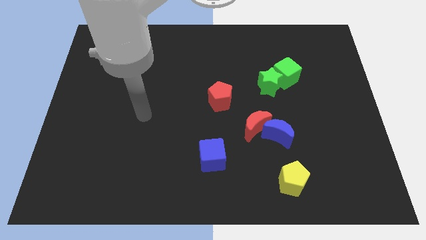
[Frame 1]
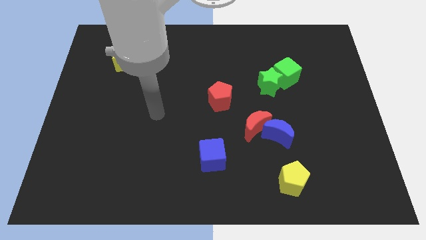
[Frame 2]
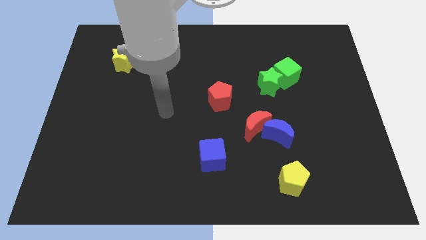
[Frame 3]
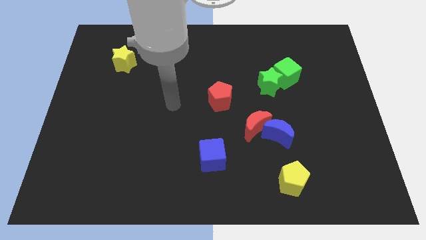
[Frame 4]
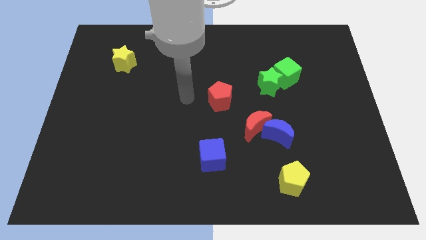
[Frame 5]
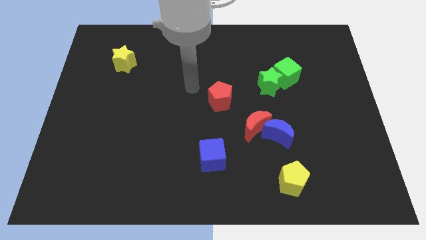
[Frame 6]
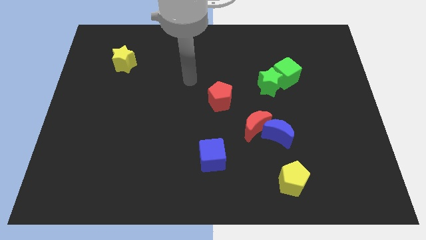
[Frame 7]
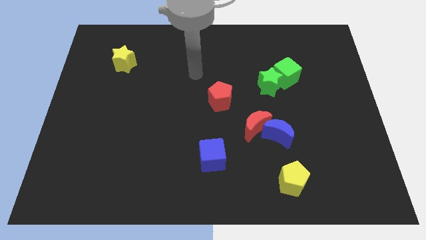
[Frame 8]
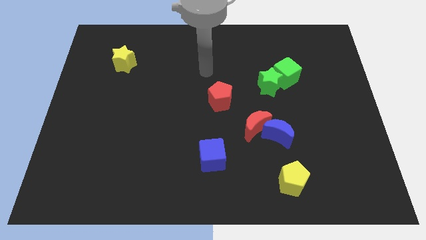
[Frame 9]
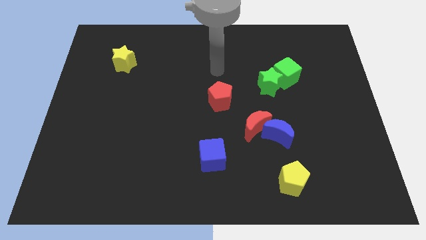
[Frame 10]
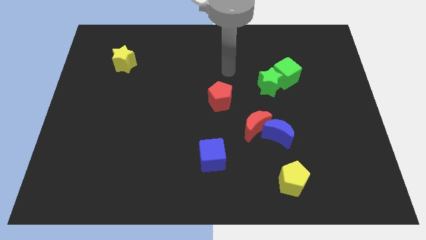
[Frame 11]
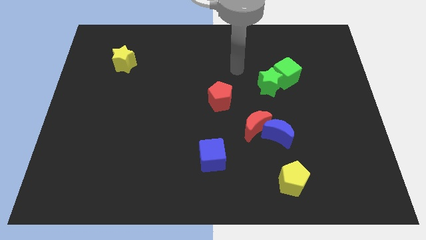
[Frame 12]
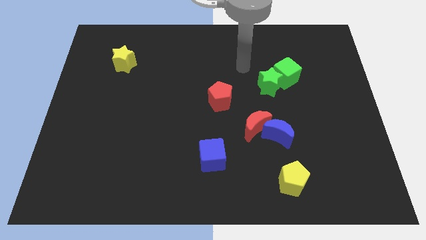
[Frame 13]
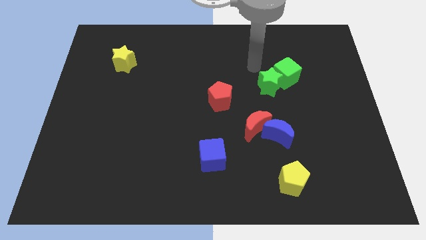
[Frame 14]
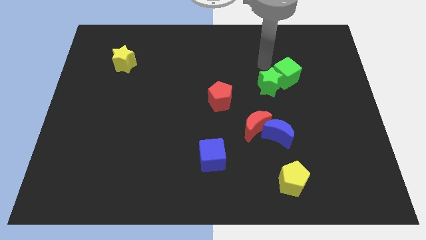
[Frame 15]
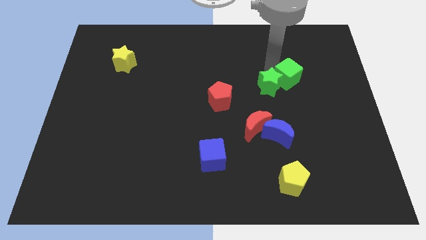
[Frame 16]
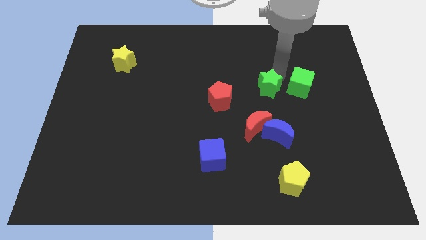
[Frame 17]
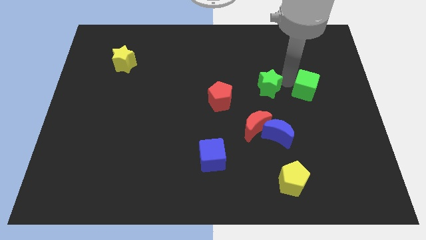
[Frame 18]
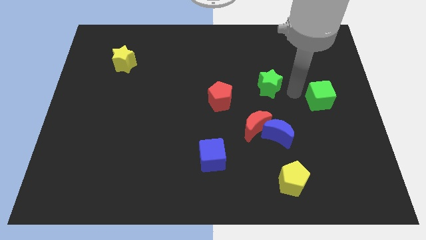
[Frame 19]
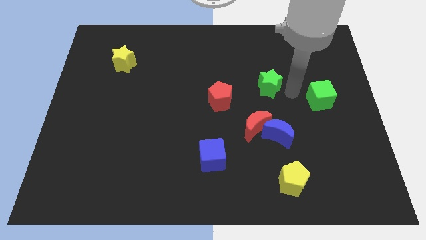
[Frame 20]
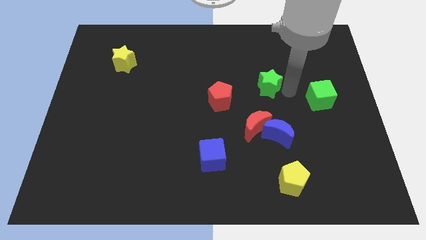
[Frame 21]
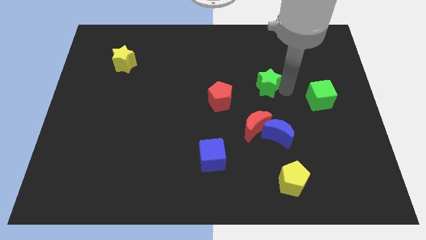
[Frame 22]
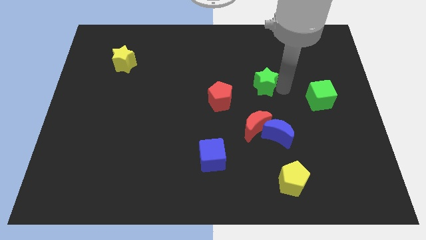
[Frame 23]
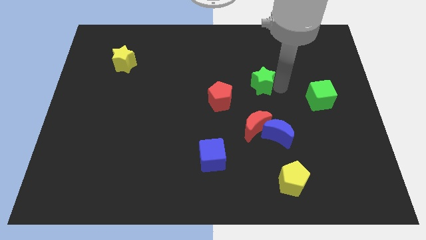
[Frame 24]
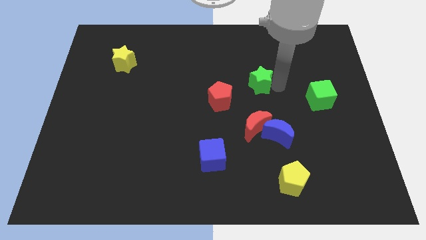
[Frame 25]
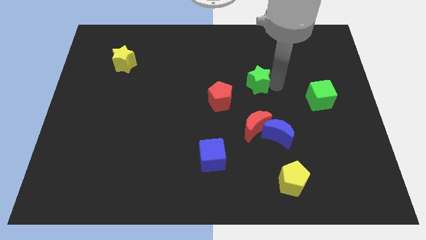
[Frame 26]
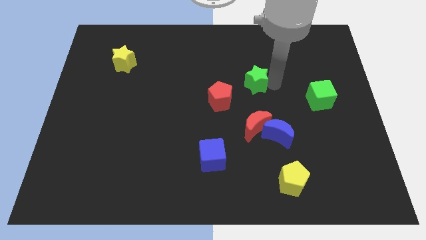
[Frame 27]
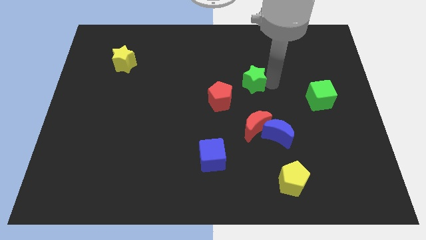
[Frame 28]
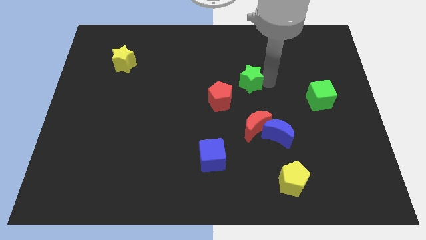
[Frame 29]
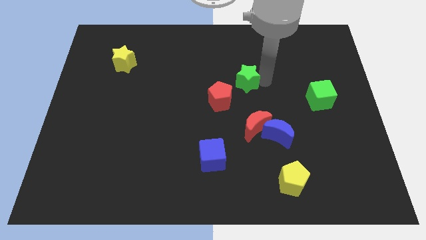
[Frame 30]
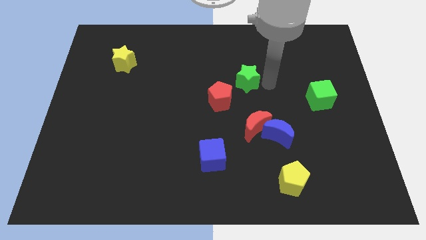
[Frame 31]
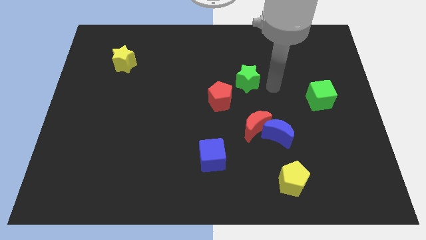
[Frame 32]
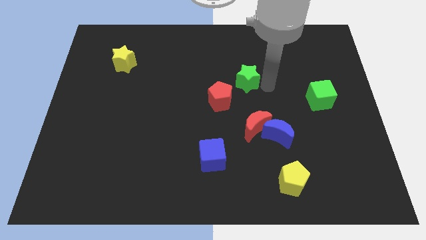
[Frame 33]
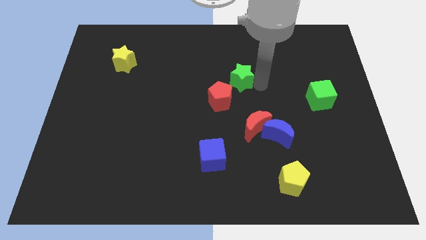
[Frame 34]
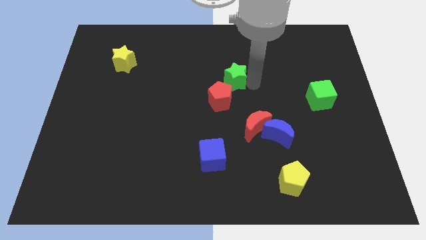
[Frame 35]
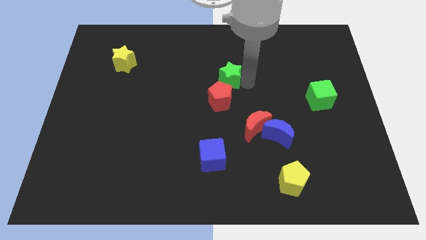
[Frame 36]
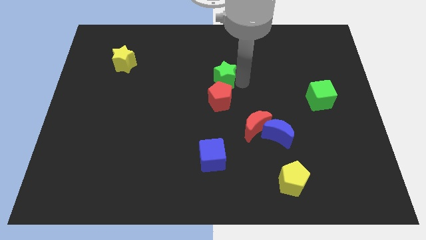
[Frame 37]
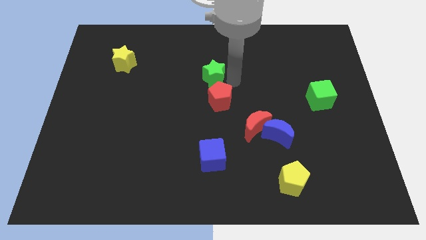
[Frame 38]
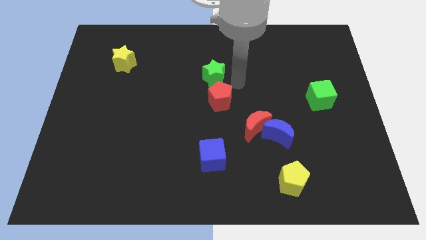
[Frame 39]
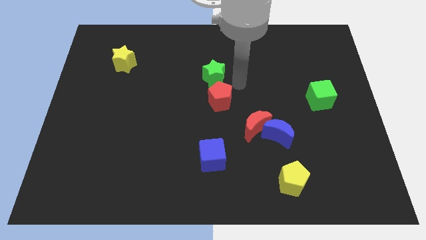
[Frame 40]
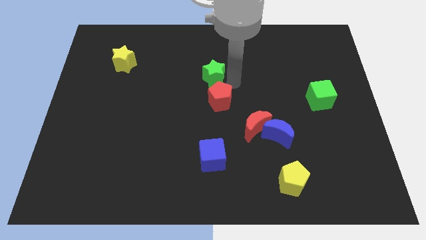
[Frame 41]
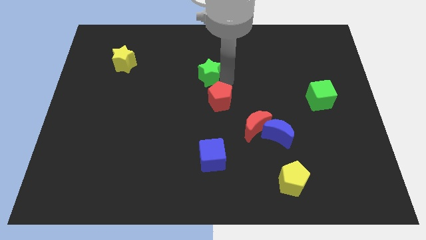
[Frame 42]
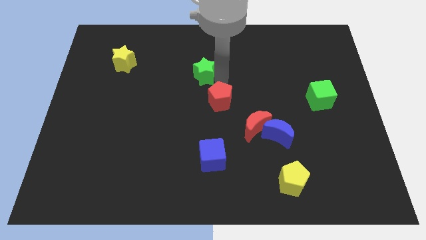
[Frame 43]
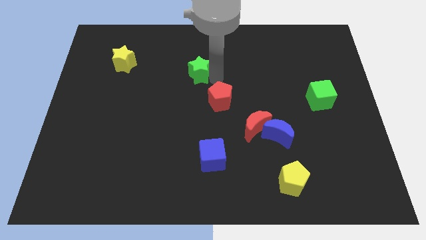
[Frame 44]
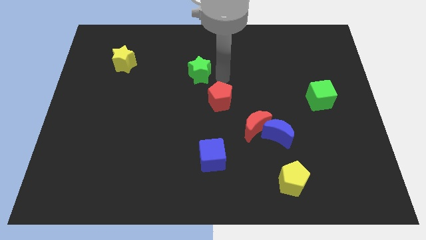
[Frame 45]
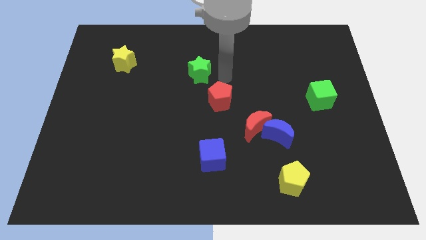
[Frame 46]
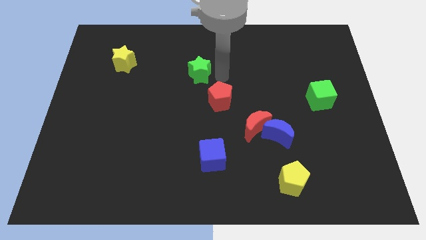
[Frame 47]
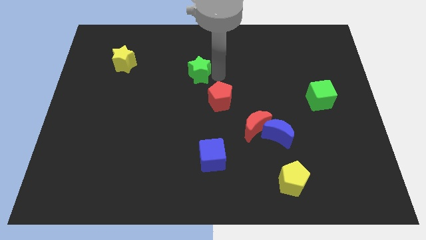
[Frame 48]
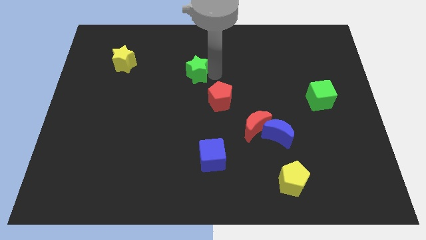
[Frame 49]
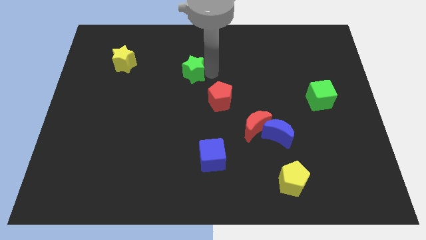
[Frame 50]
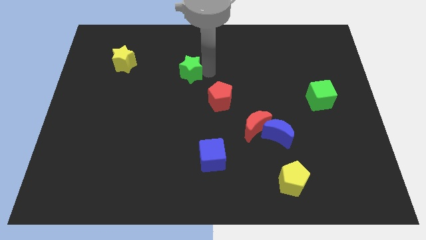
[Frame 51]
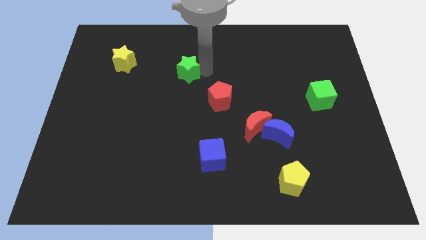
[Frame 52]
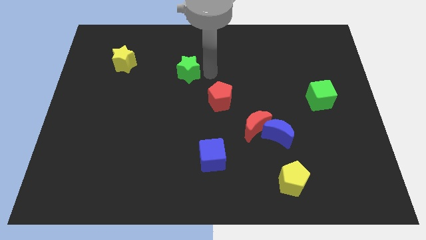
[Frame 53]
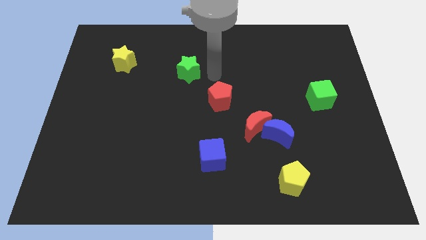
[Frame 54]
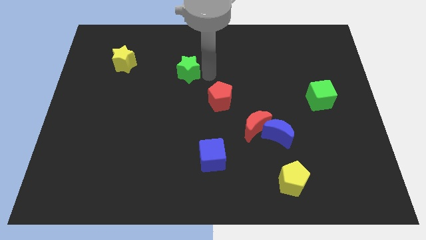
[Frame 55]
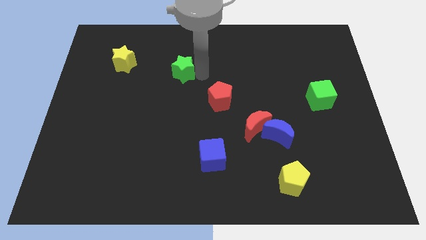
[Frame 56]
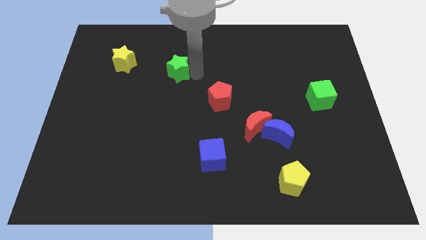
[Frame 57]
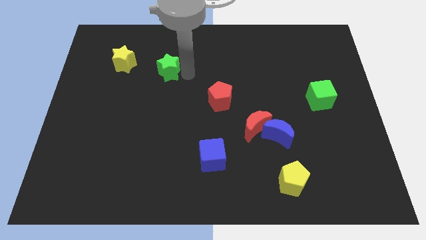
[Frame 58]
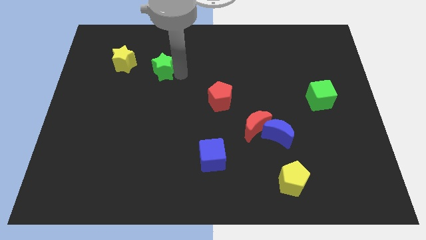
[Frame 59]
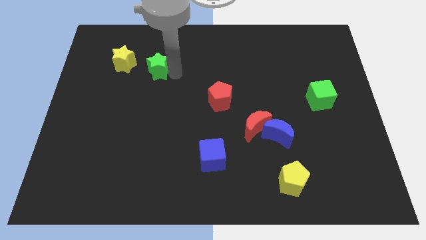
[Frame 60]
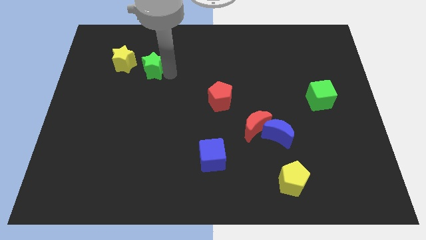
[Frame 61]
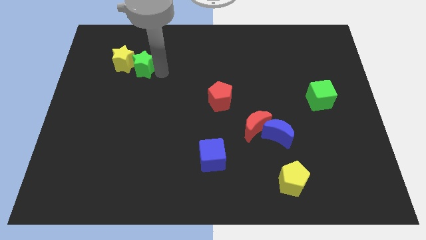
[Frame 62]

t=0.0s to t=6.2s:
move the green star towards the yellow star

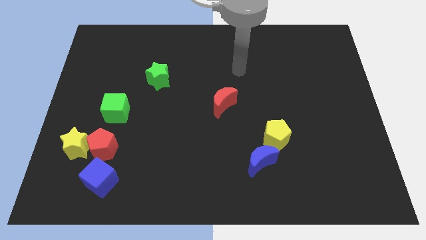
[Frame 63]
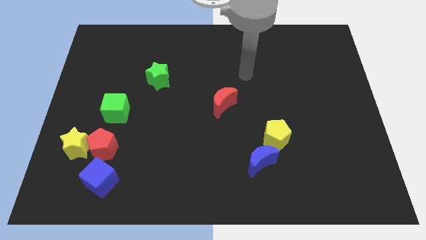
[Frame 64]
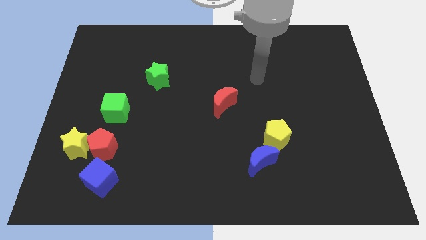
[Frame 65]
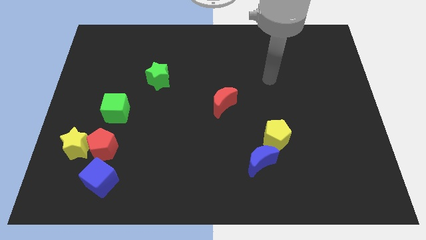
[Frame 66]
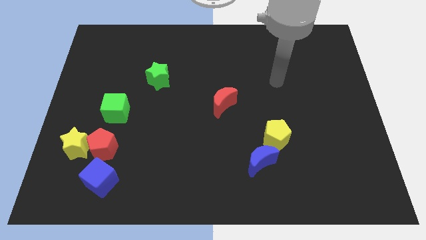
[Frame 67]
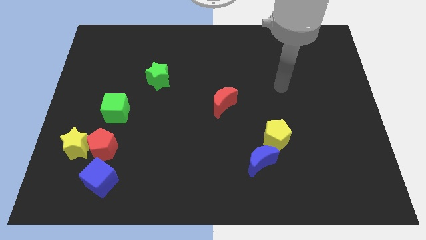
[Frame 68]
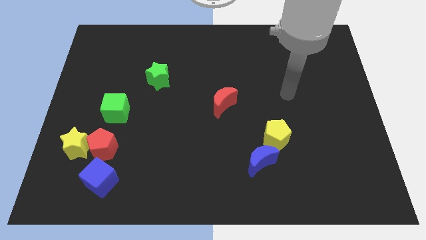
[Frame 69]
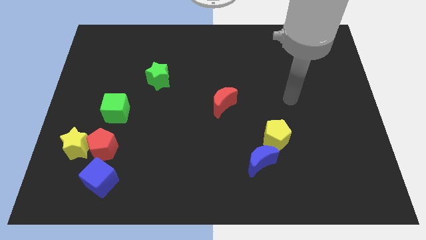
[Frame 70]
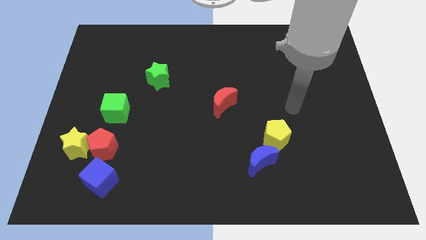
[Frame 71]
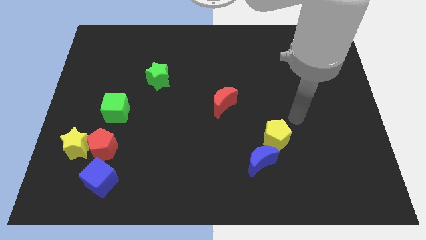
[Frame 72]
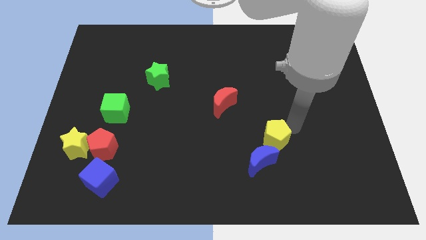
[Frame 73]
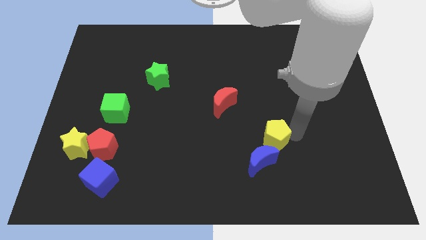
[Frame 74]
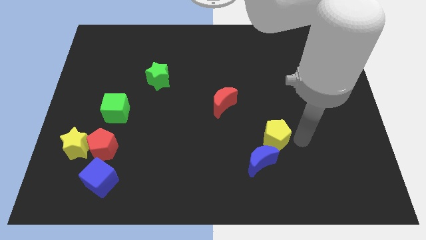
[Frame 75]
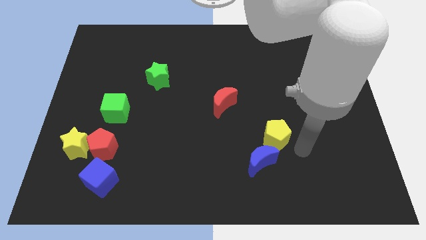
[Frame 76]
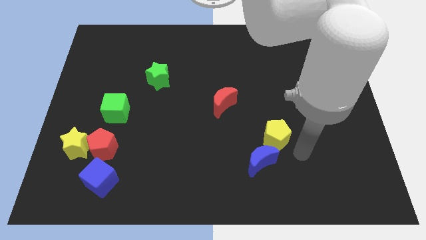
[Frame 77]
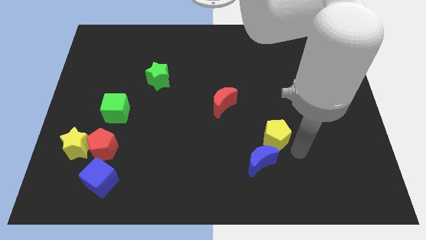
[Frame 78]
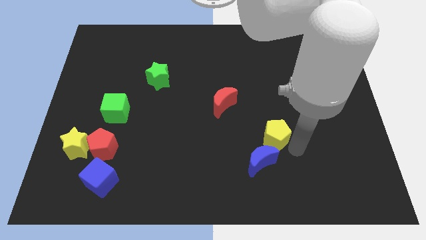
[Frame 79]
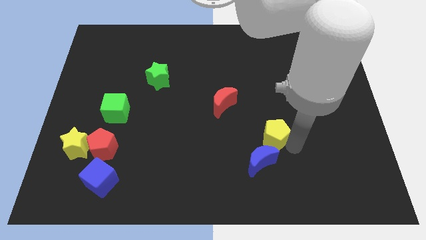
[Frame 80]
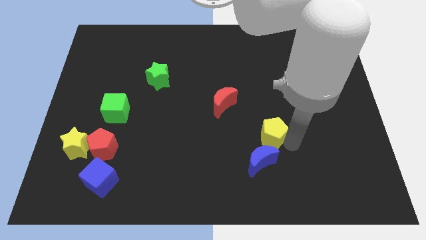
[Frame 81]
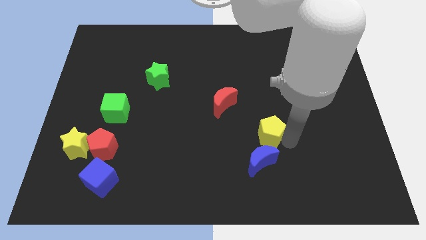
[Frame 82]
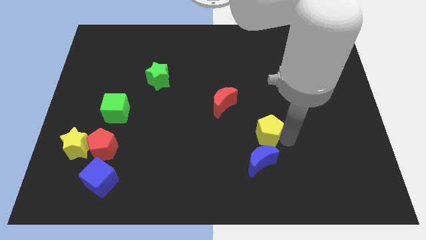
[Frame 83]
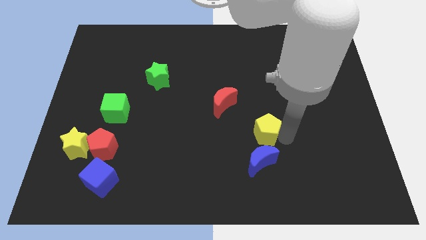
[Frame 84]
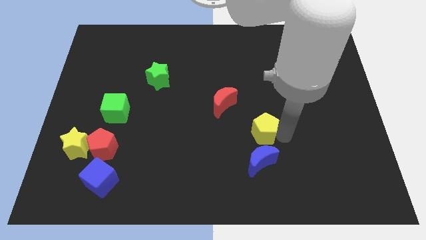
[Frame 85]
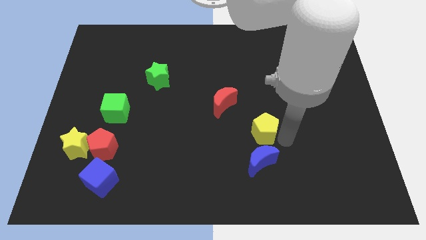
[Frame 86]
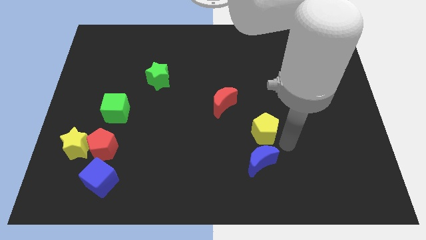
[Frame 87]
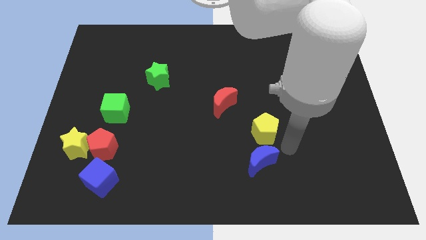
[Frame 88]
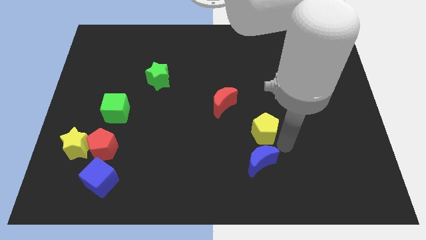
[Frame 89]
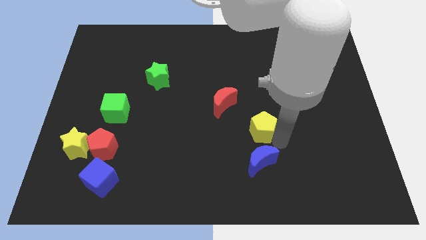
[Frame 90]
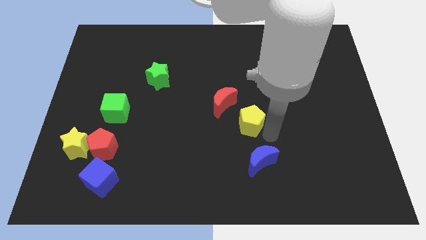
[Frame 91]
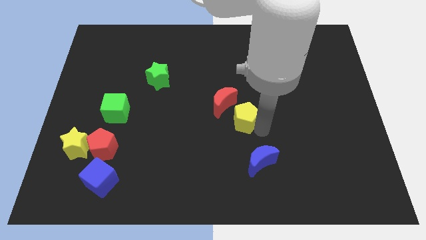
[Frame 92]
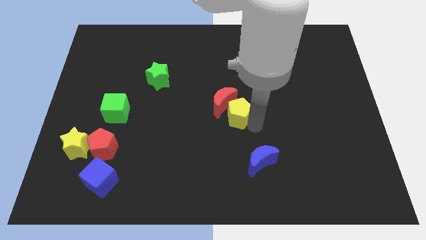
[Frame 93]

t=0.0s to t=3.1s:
push the yellow pentagon next to the red moon
